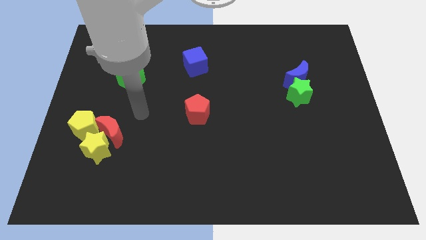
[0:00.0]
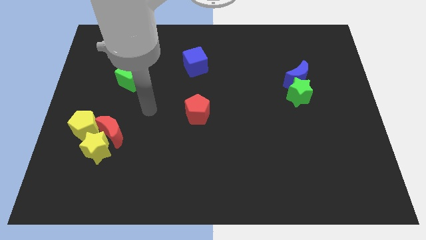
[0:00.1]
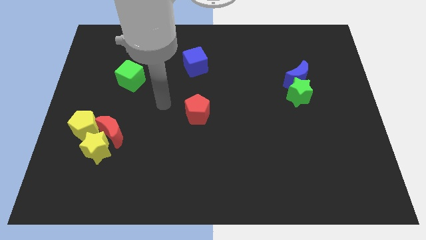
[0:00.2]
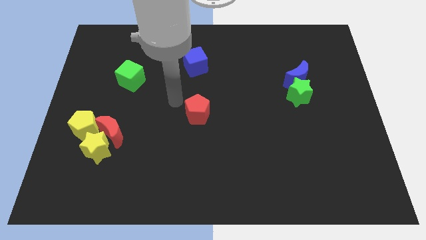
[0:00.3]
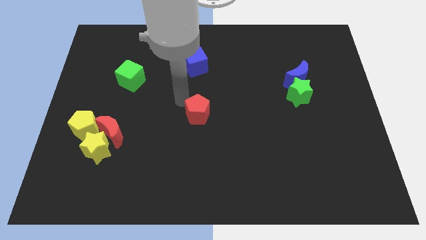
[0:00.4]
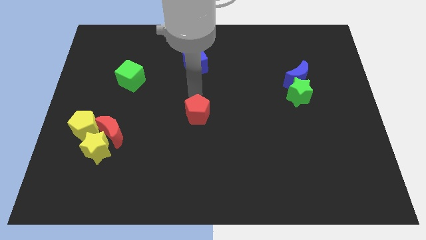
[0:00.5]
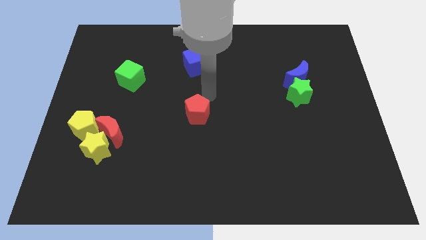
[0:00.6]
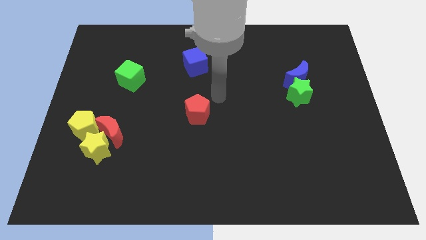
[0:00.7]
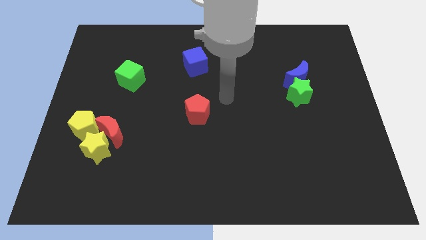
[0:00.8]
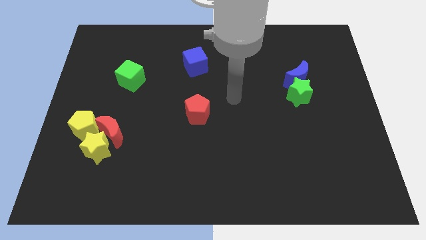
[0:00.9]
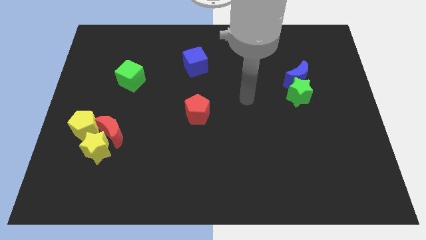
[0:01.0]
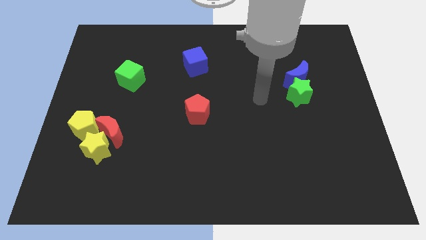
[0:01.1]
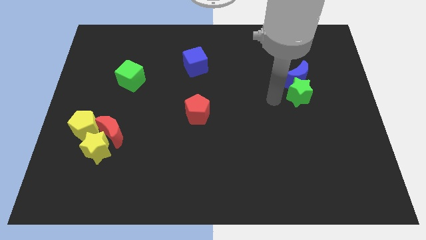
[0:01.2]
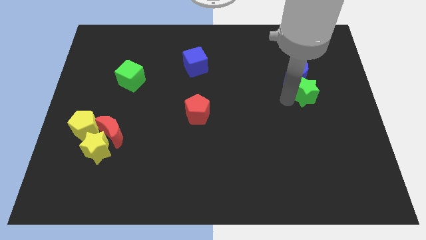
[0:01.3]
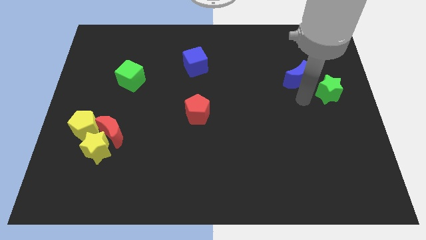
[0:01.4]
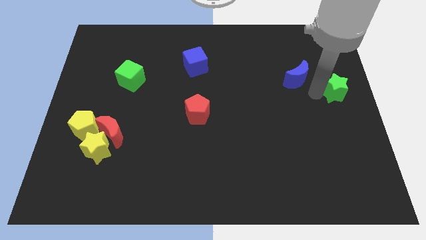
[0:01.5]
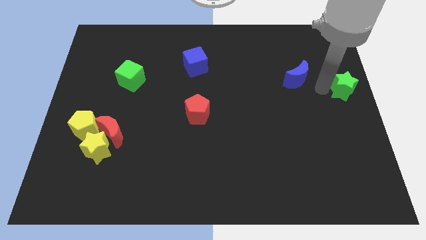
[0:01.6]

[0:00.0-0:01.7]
move the blue moon away from the green star

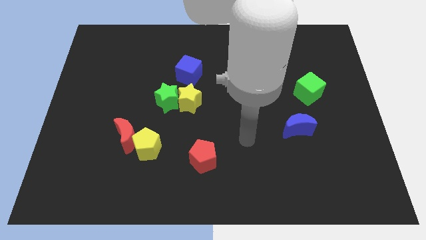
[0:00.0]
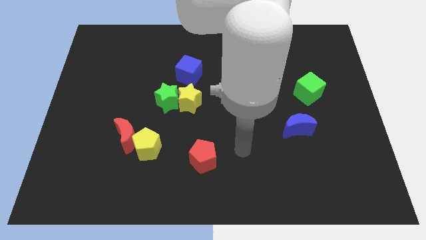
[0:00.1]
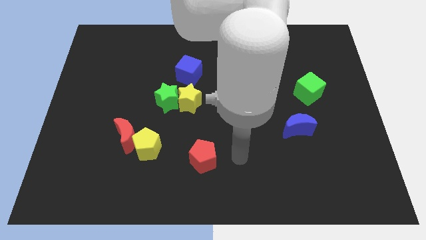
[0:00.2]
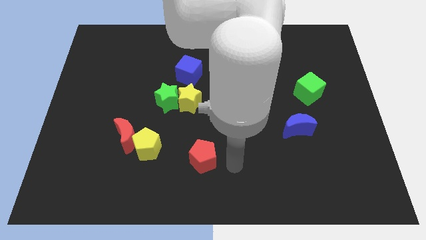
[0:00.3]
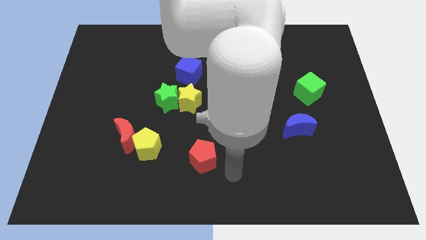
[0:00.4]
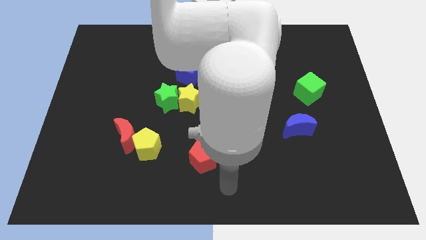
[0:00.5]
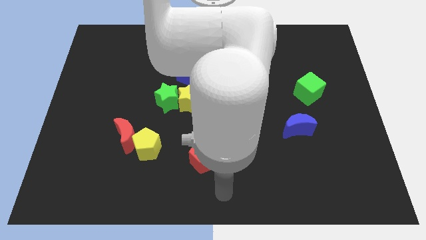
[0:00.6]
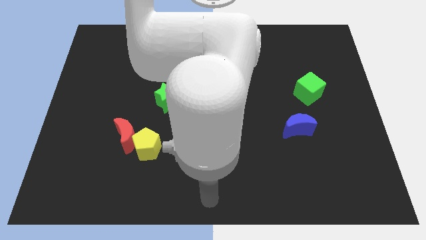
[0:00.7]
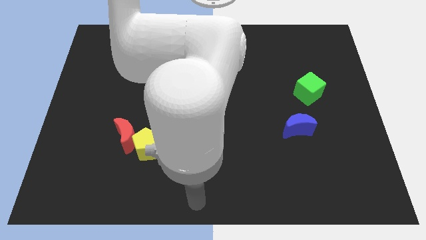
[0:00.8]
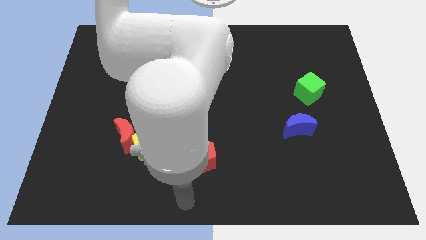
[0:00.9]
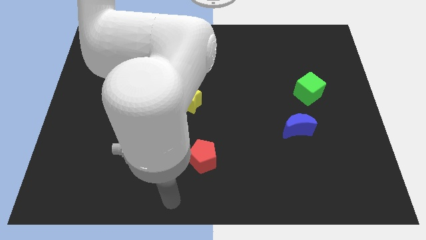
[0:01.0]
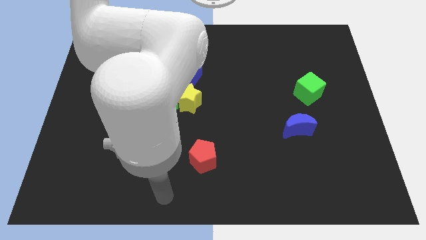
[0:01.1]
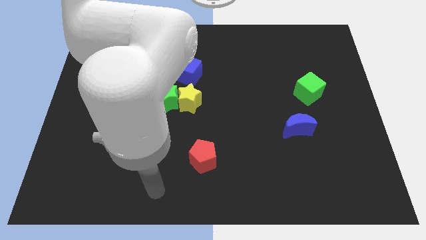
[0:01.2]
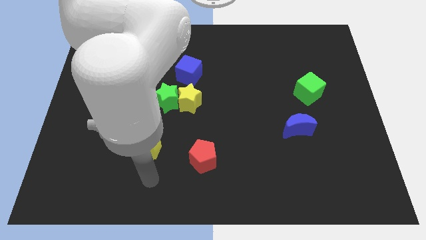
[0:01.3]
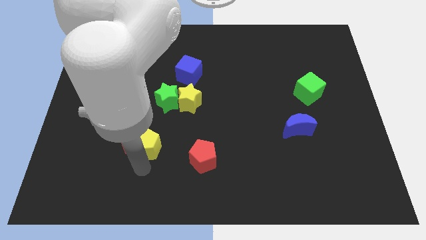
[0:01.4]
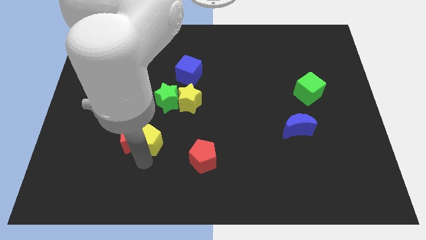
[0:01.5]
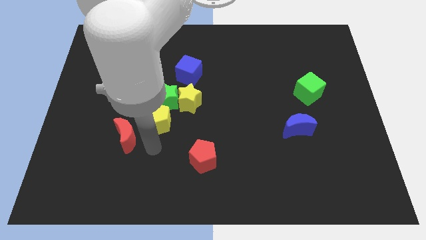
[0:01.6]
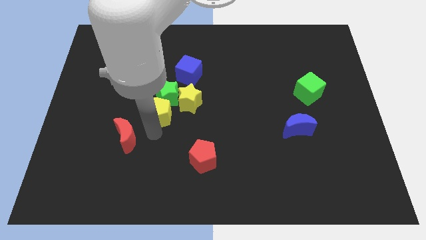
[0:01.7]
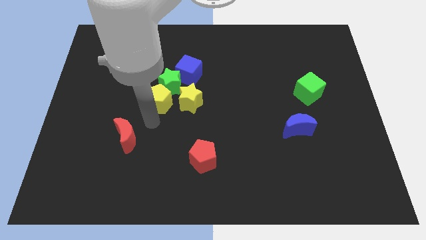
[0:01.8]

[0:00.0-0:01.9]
separate the red moon from the yellow pentagon

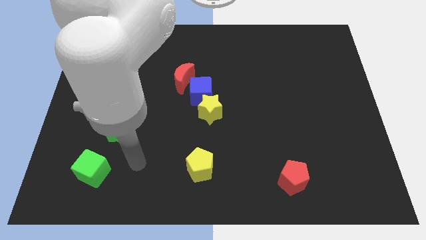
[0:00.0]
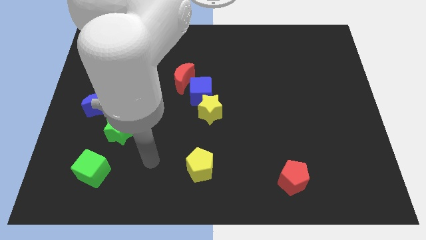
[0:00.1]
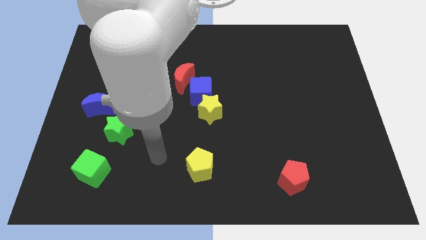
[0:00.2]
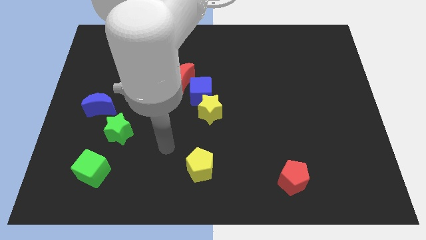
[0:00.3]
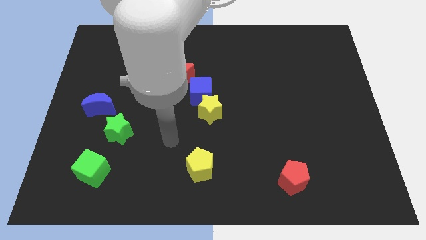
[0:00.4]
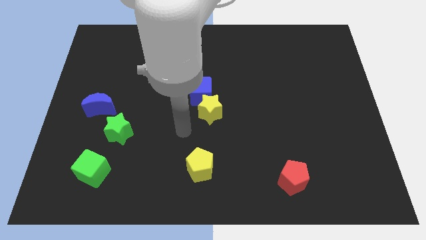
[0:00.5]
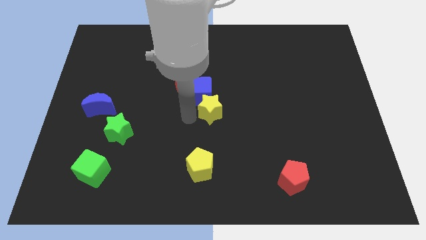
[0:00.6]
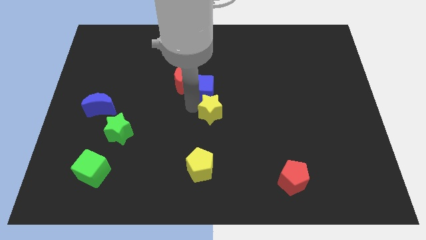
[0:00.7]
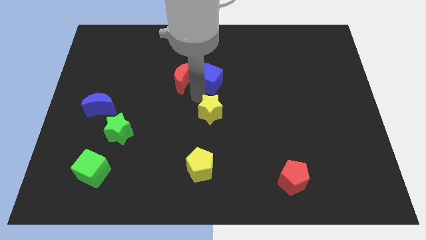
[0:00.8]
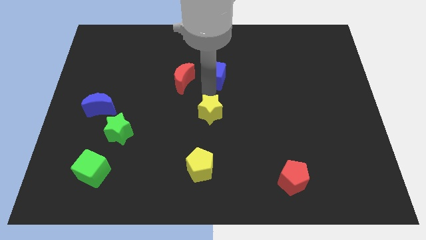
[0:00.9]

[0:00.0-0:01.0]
separate the yellow star from the blue cube

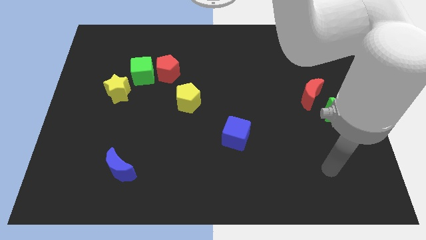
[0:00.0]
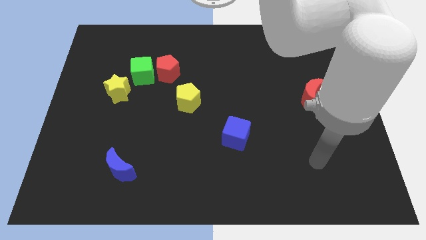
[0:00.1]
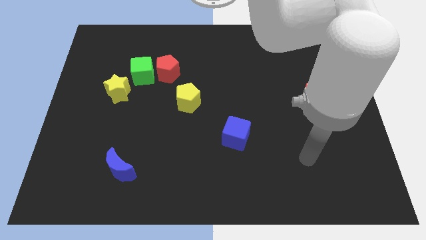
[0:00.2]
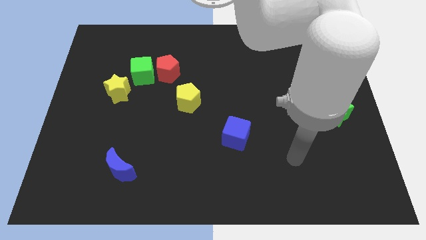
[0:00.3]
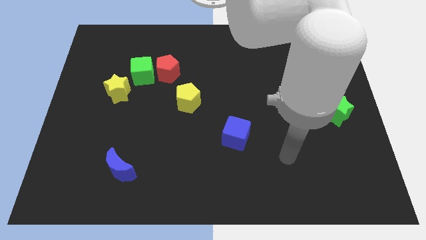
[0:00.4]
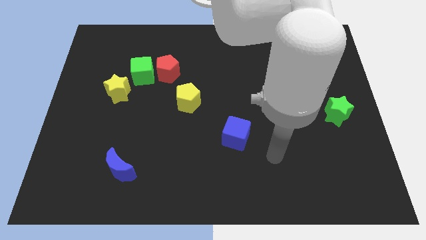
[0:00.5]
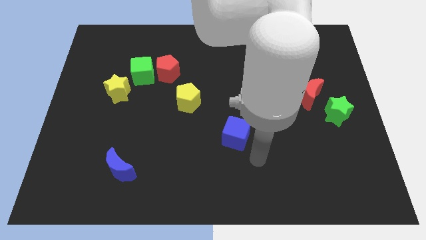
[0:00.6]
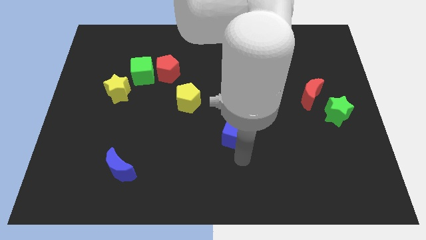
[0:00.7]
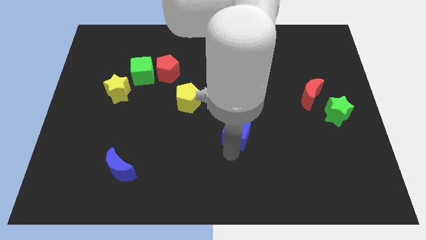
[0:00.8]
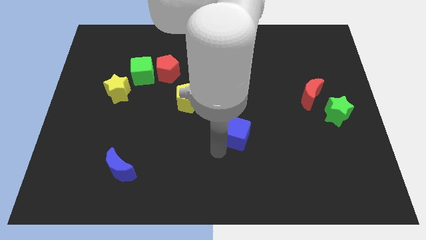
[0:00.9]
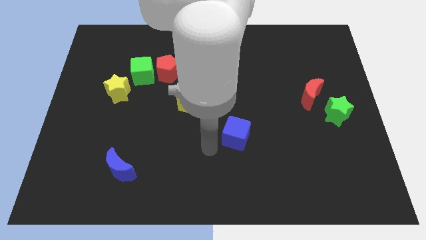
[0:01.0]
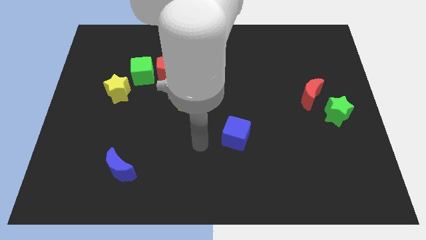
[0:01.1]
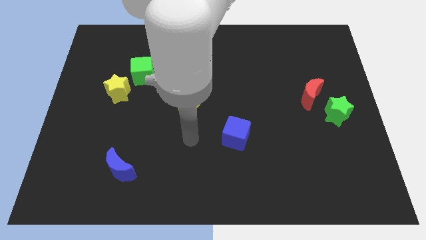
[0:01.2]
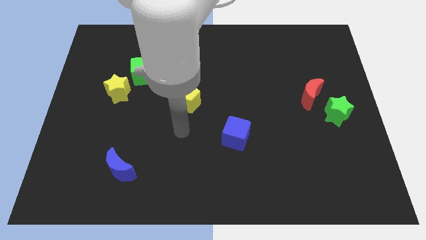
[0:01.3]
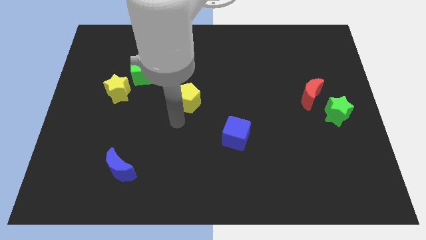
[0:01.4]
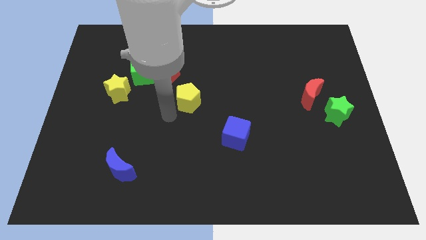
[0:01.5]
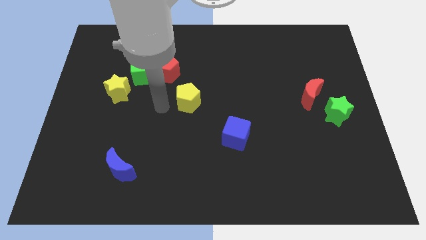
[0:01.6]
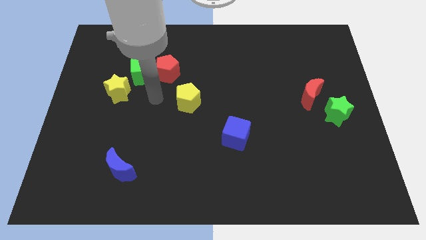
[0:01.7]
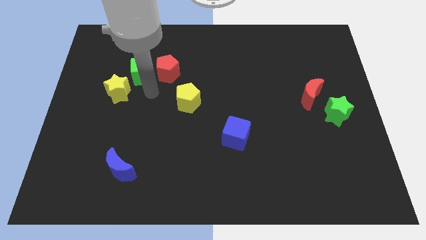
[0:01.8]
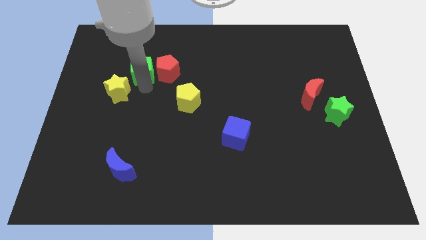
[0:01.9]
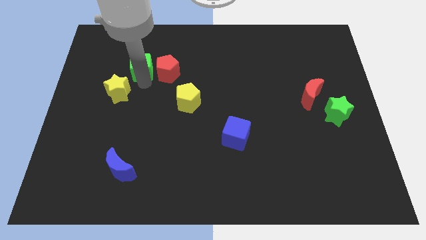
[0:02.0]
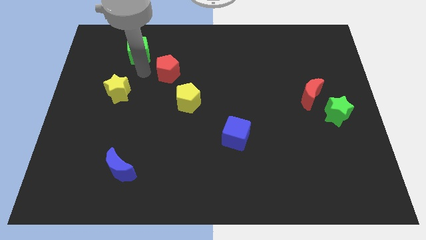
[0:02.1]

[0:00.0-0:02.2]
pull the red pentagon apart from the green cube

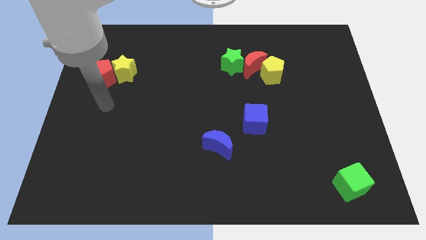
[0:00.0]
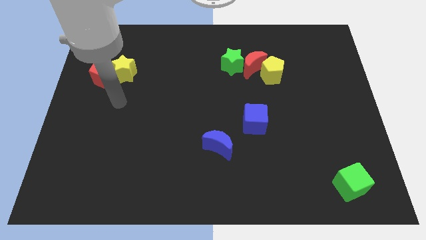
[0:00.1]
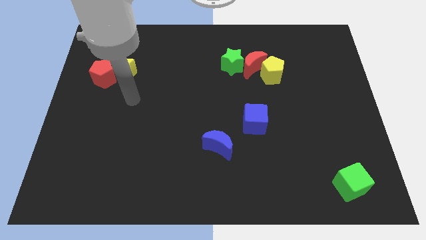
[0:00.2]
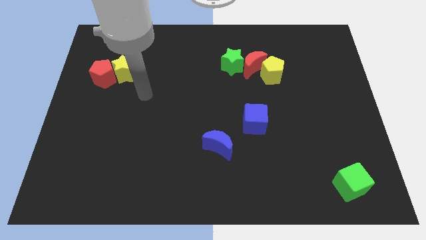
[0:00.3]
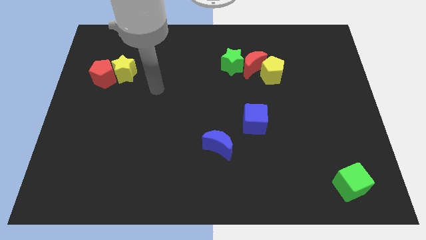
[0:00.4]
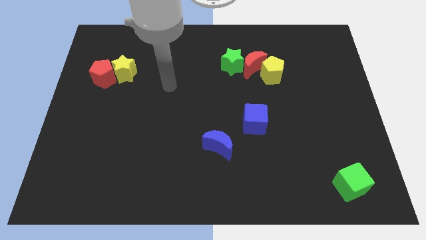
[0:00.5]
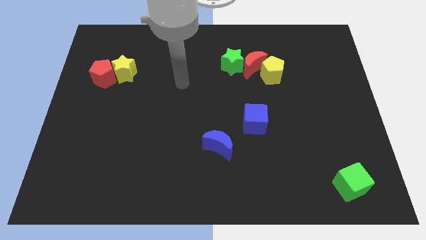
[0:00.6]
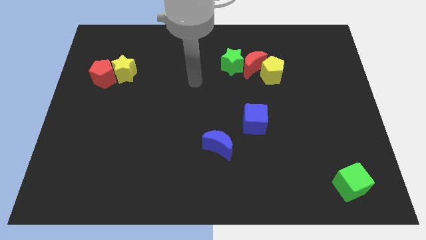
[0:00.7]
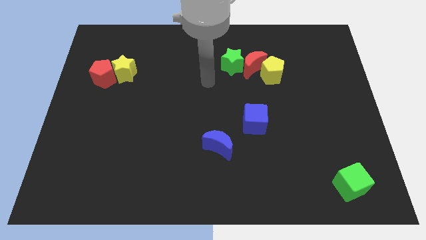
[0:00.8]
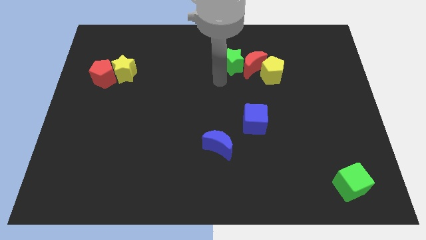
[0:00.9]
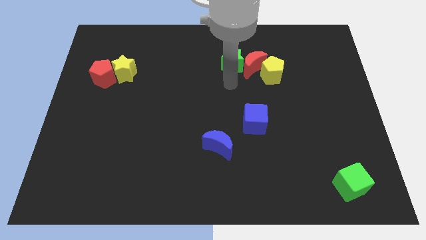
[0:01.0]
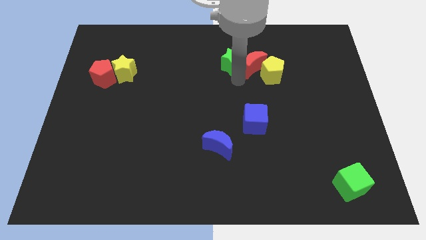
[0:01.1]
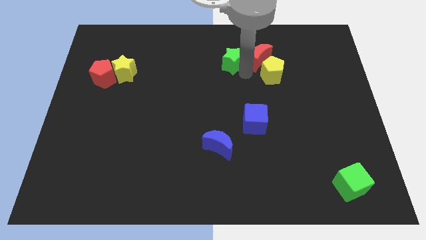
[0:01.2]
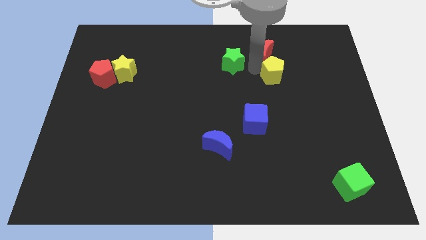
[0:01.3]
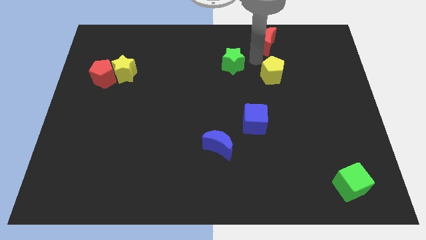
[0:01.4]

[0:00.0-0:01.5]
separate the green star from the red moon

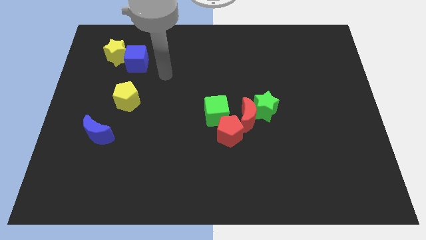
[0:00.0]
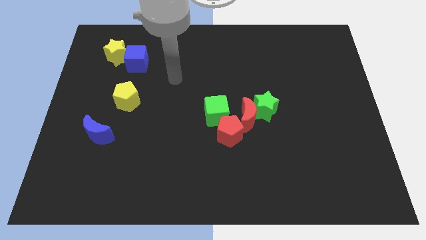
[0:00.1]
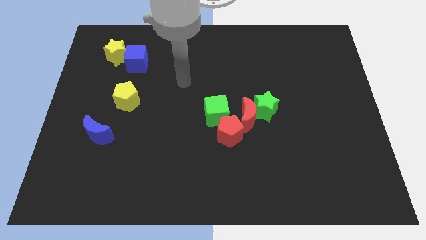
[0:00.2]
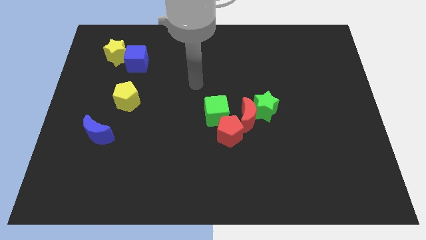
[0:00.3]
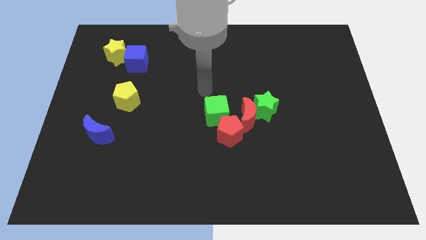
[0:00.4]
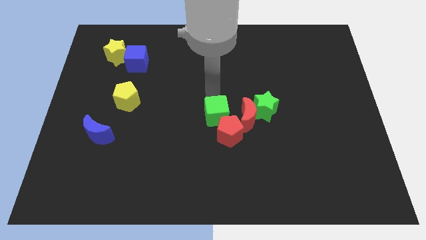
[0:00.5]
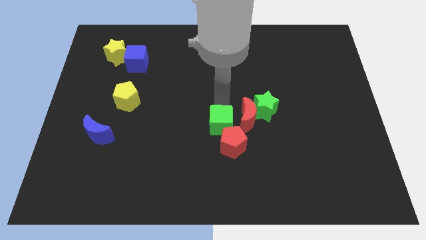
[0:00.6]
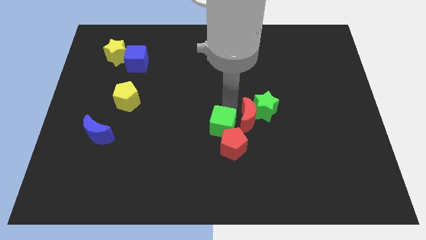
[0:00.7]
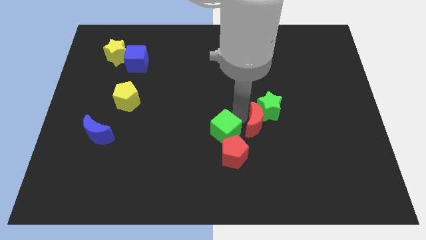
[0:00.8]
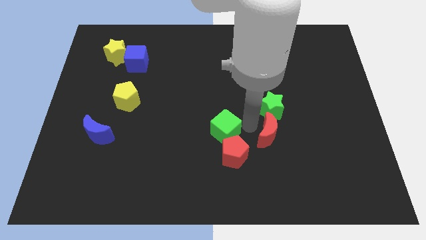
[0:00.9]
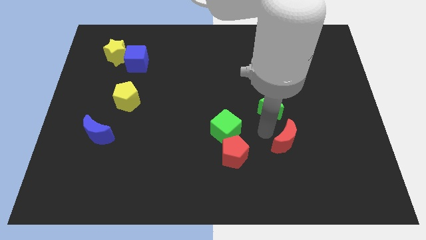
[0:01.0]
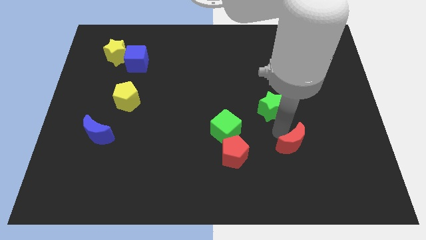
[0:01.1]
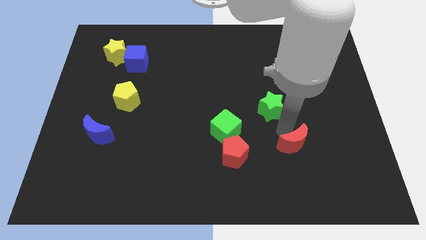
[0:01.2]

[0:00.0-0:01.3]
move the green star away from the red moon
